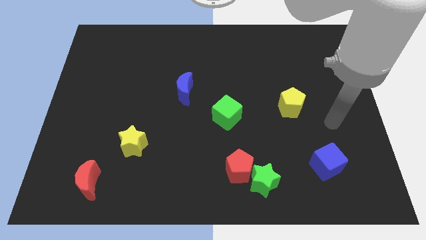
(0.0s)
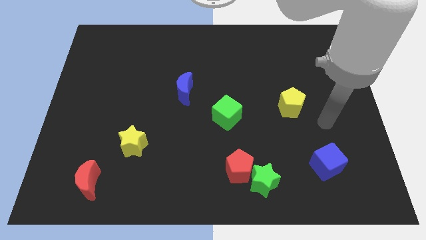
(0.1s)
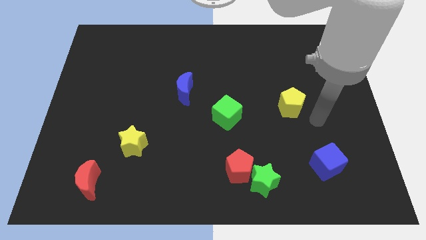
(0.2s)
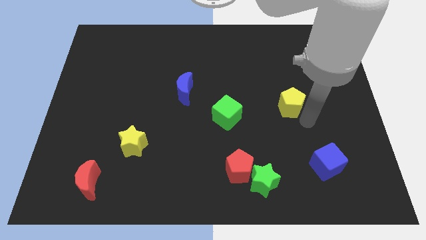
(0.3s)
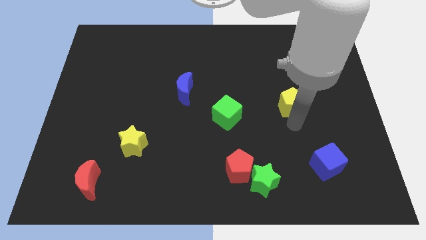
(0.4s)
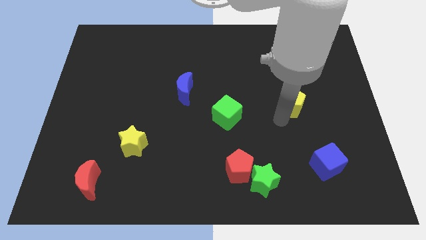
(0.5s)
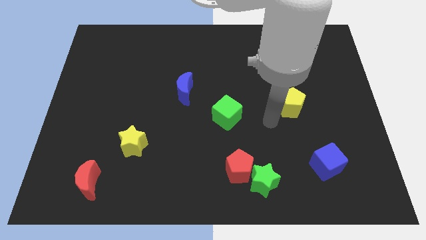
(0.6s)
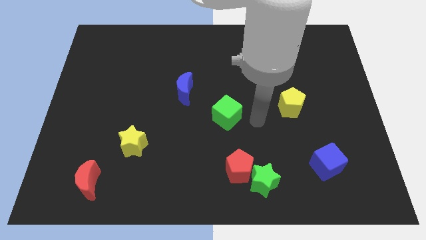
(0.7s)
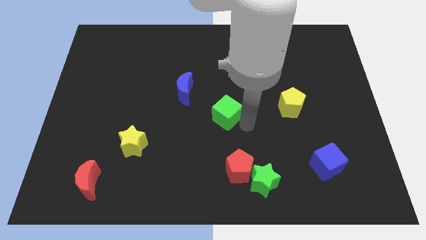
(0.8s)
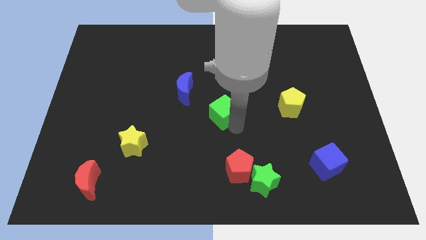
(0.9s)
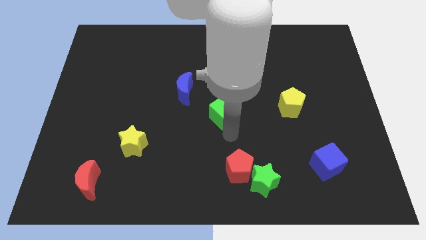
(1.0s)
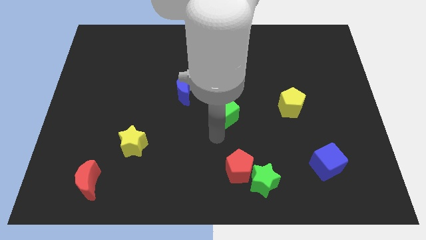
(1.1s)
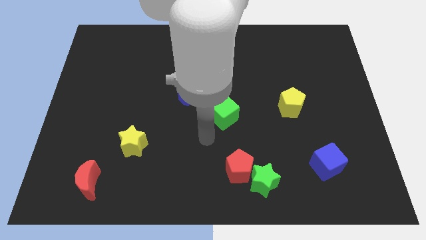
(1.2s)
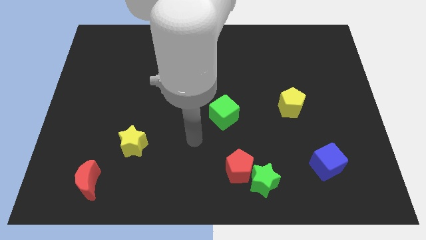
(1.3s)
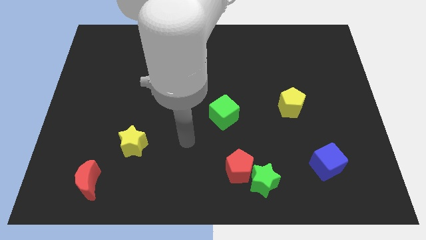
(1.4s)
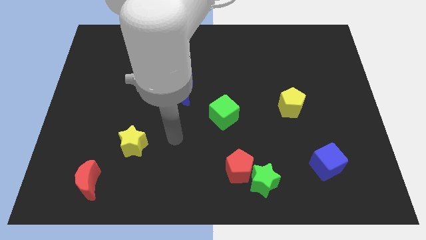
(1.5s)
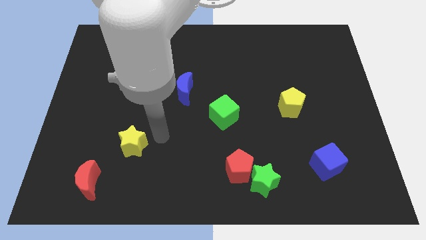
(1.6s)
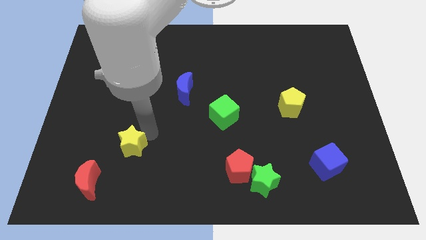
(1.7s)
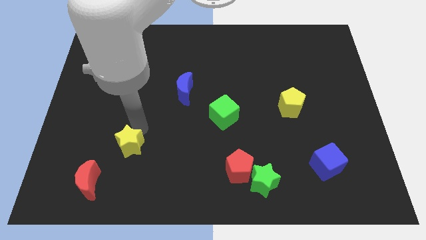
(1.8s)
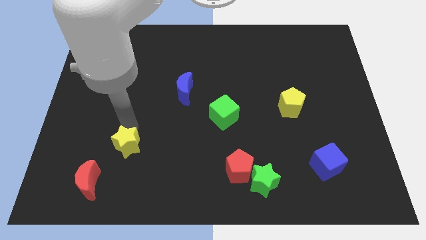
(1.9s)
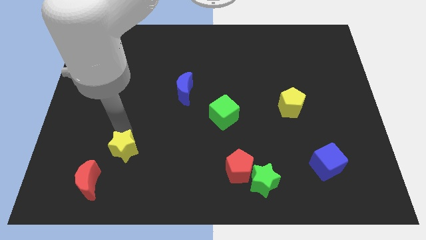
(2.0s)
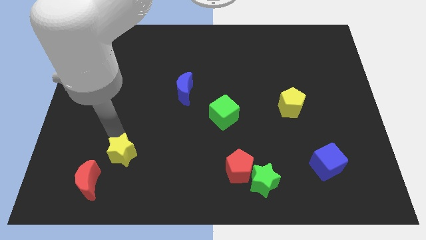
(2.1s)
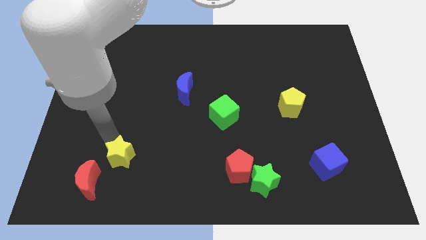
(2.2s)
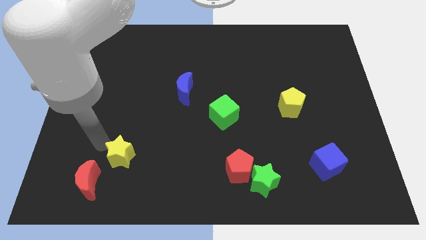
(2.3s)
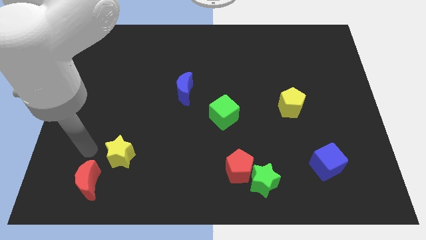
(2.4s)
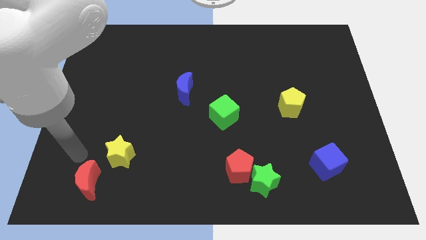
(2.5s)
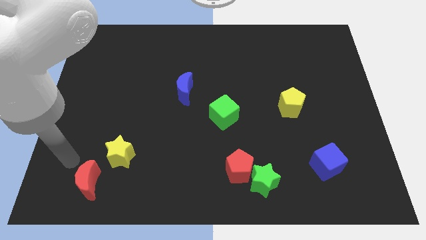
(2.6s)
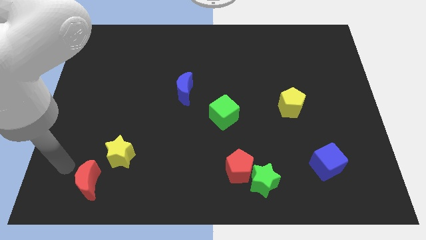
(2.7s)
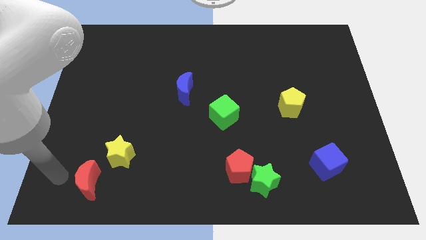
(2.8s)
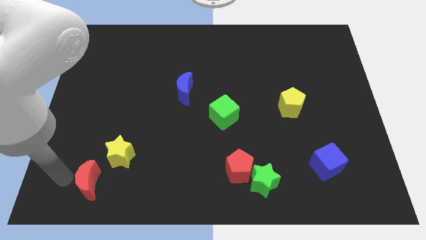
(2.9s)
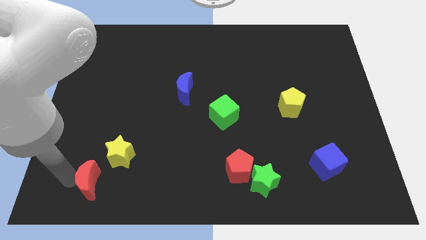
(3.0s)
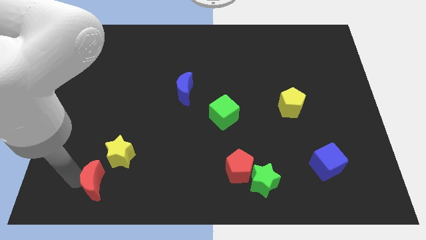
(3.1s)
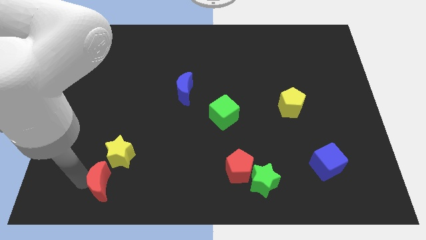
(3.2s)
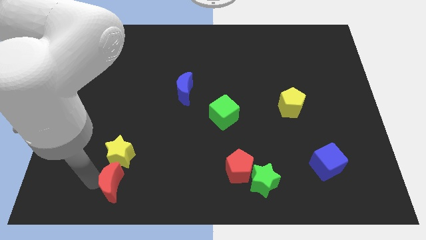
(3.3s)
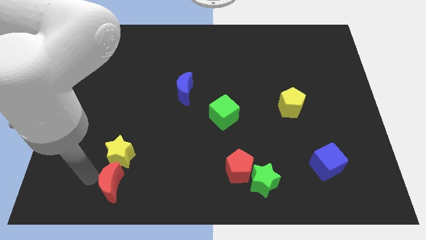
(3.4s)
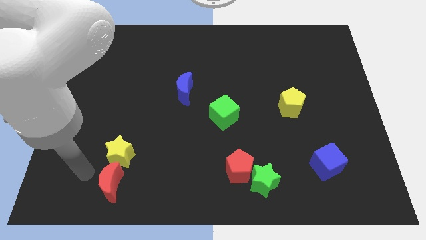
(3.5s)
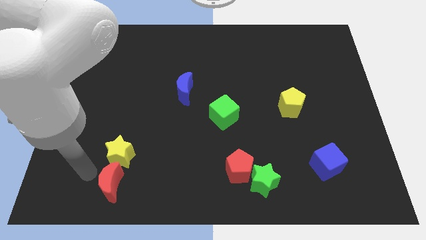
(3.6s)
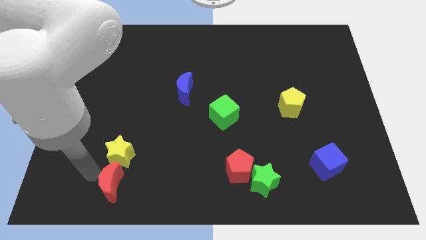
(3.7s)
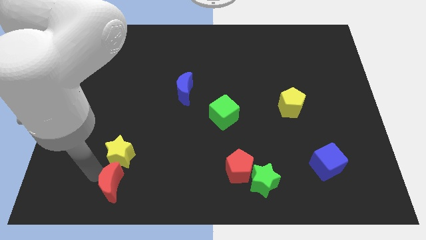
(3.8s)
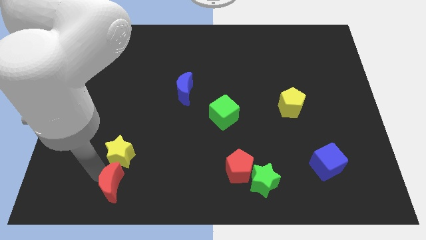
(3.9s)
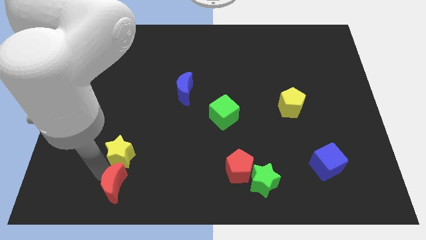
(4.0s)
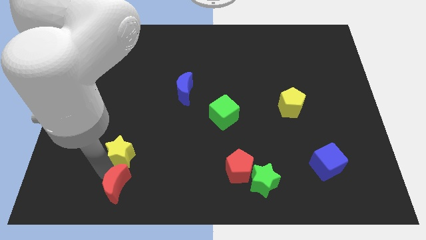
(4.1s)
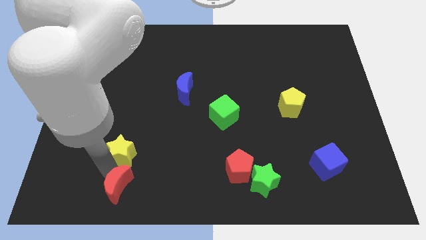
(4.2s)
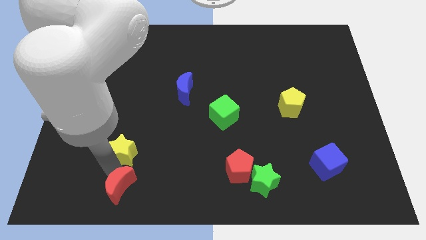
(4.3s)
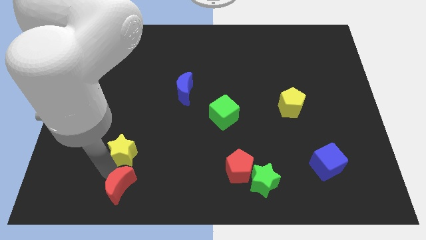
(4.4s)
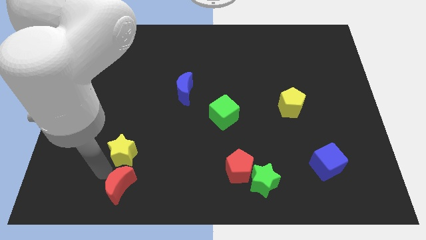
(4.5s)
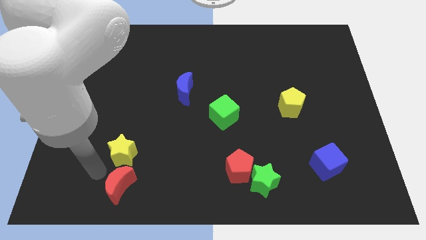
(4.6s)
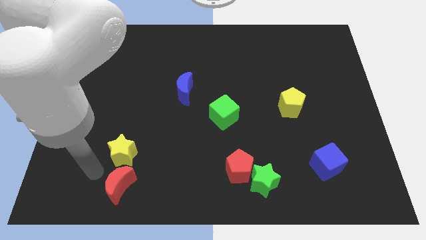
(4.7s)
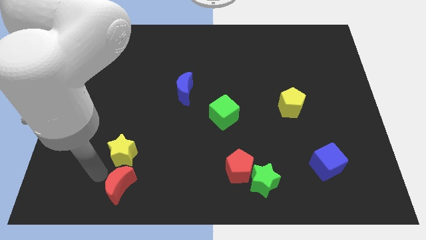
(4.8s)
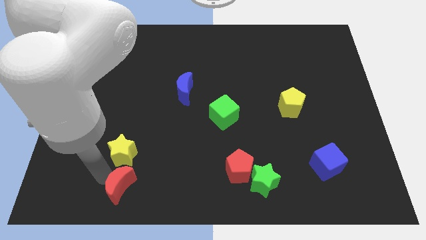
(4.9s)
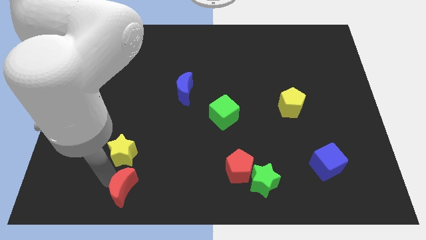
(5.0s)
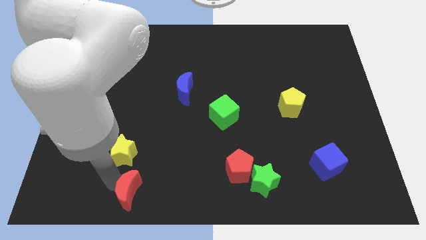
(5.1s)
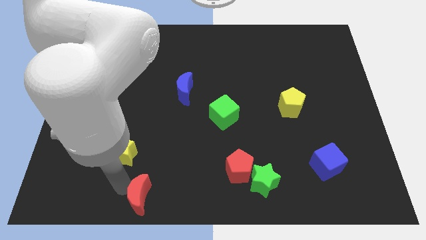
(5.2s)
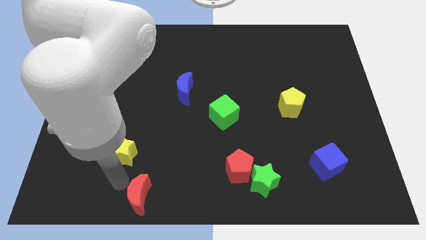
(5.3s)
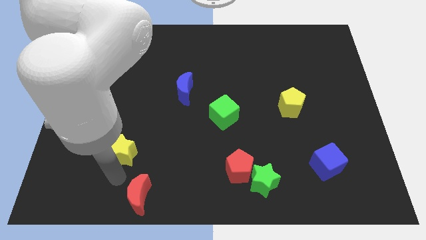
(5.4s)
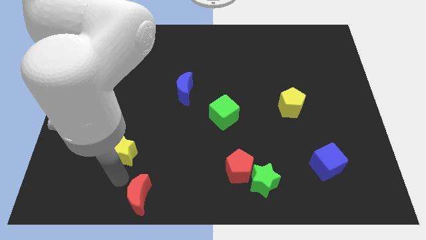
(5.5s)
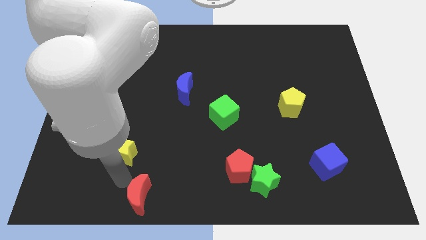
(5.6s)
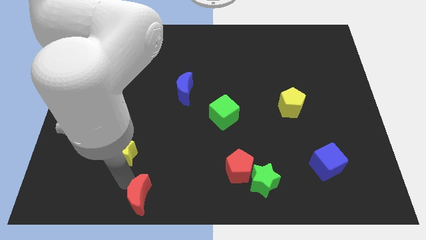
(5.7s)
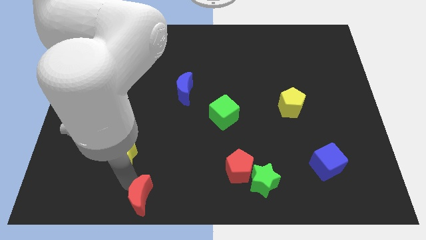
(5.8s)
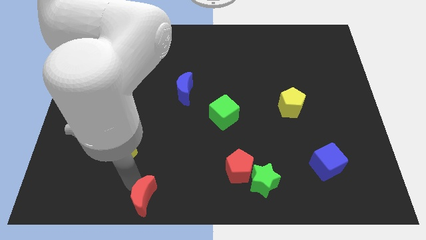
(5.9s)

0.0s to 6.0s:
slide the red moon to the bottom side
